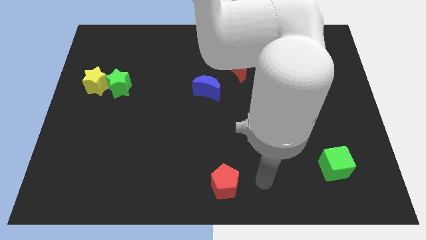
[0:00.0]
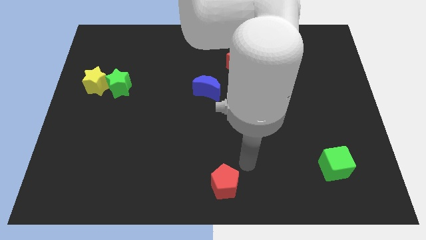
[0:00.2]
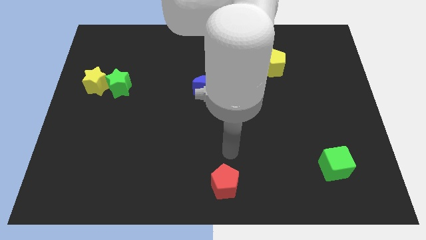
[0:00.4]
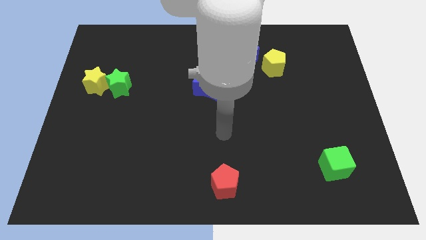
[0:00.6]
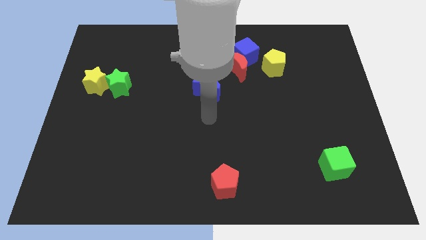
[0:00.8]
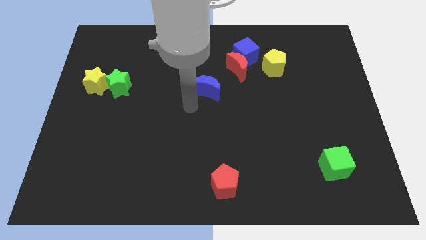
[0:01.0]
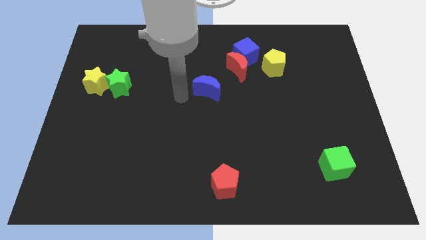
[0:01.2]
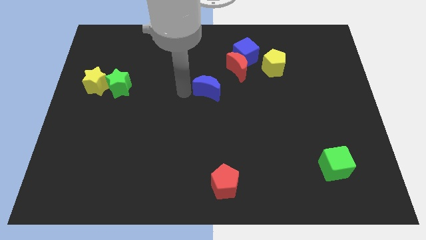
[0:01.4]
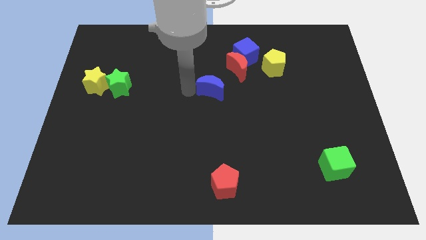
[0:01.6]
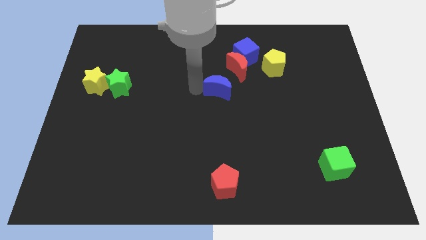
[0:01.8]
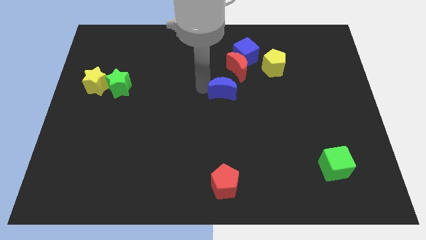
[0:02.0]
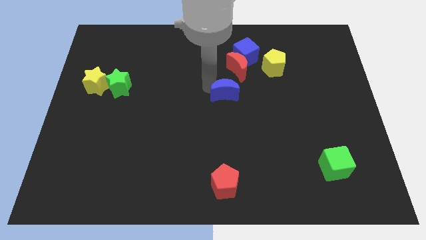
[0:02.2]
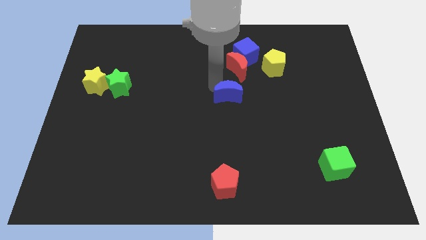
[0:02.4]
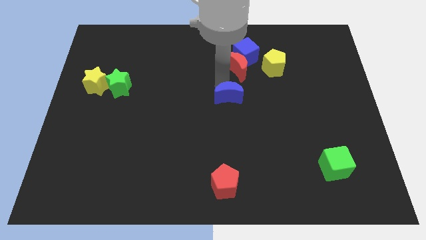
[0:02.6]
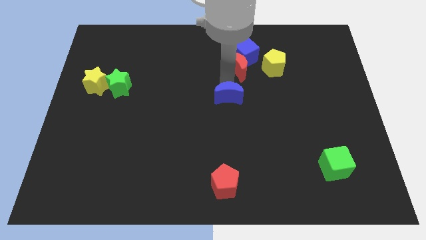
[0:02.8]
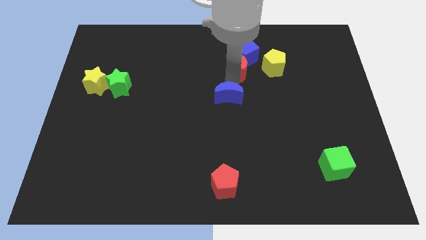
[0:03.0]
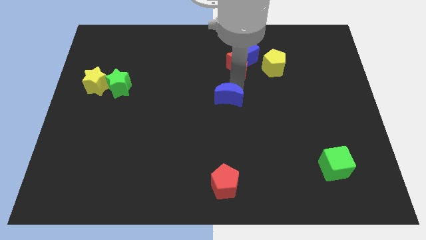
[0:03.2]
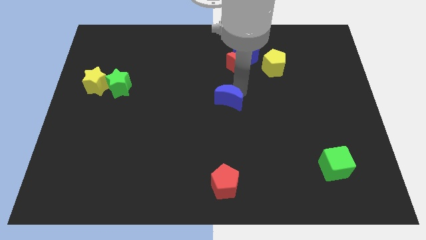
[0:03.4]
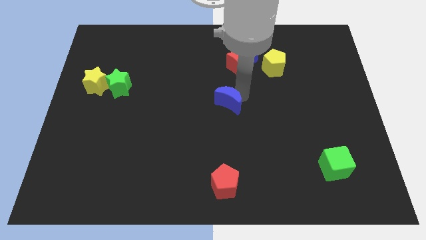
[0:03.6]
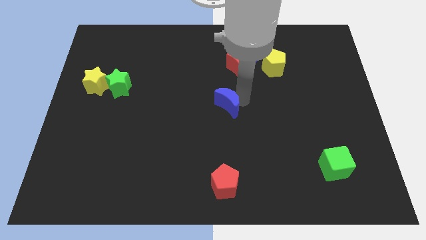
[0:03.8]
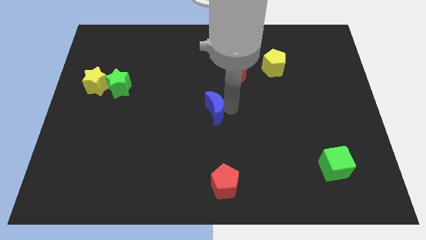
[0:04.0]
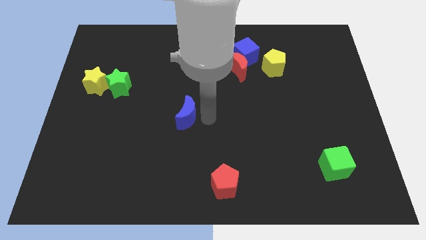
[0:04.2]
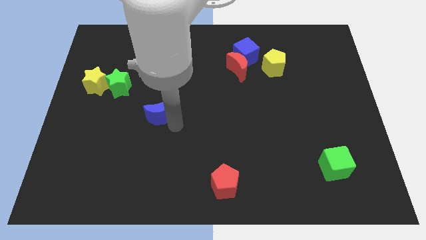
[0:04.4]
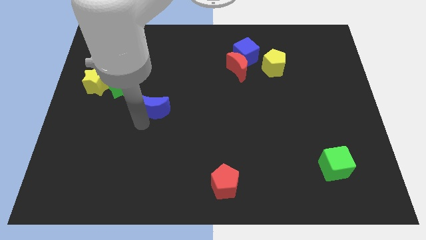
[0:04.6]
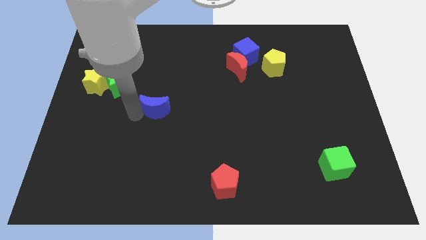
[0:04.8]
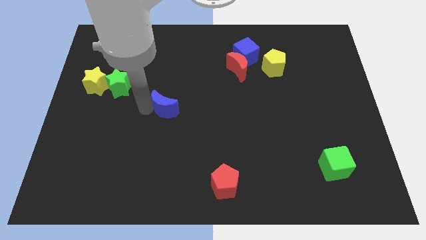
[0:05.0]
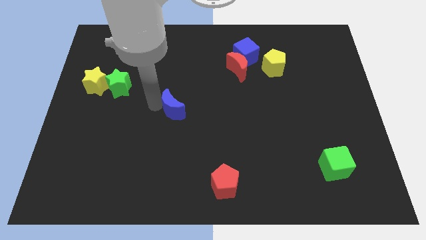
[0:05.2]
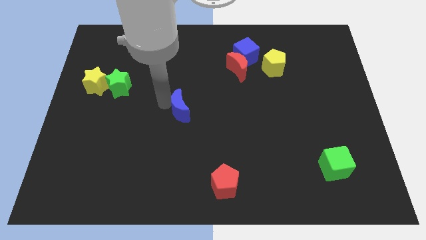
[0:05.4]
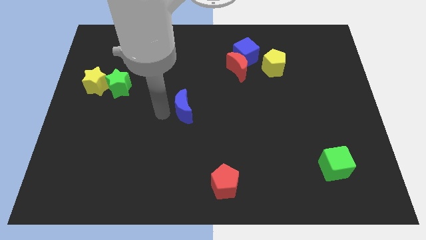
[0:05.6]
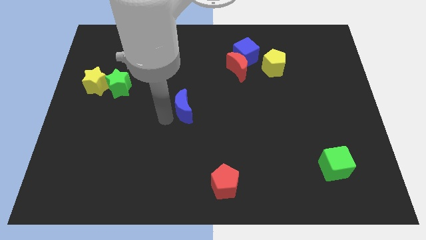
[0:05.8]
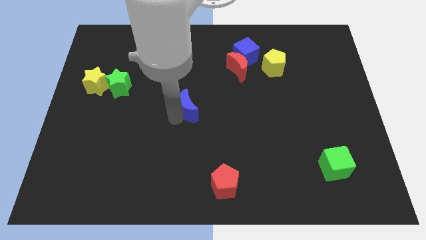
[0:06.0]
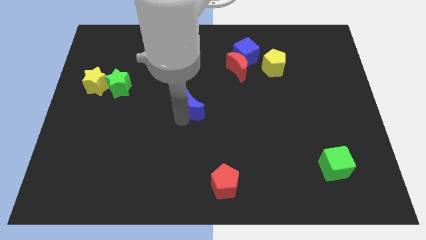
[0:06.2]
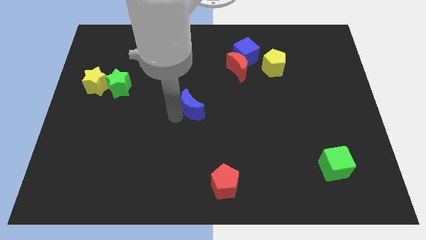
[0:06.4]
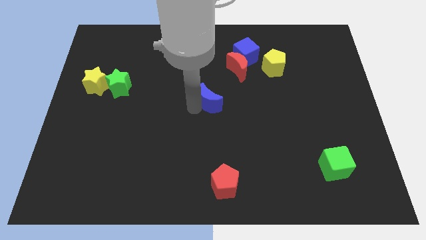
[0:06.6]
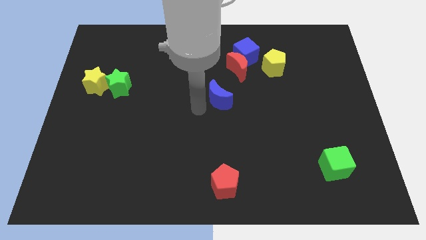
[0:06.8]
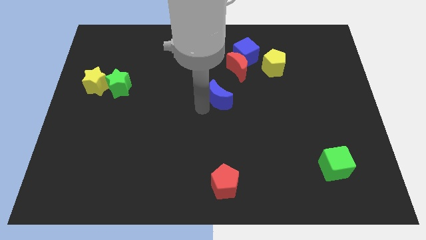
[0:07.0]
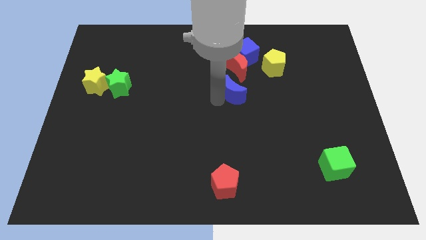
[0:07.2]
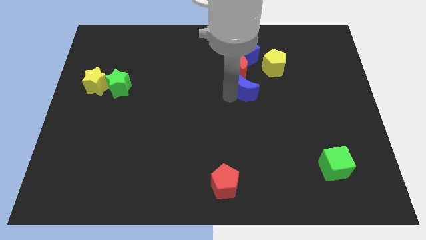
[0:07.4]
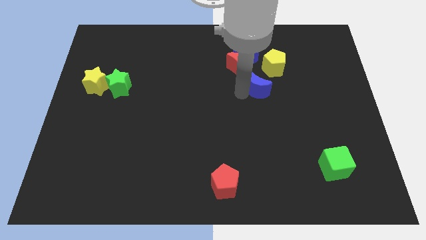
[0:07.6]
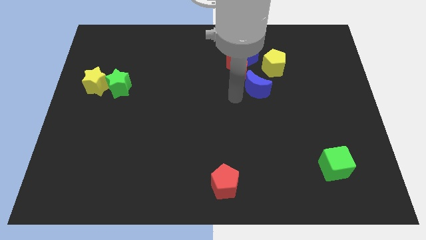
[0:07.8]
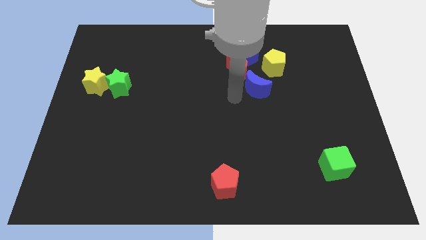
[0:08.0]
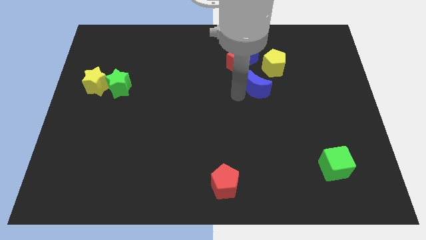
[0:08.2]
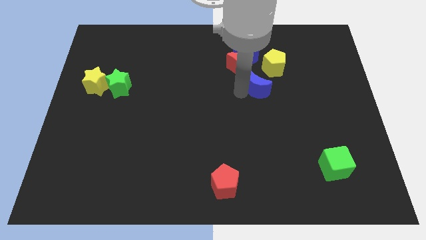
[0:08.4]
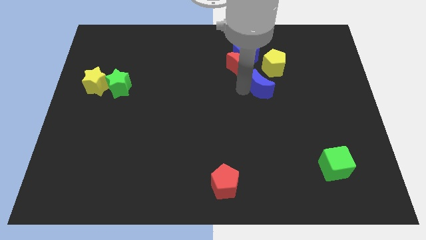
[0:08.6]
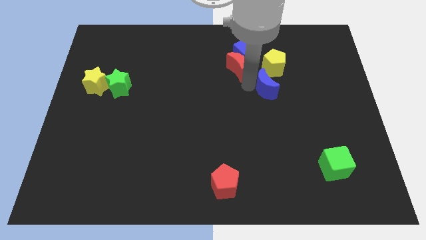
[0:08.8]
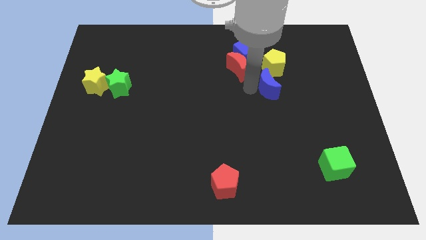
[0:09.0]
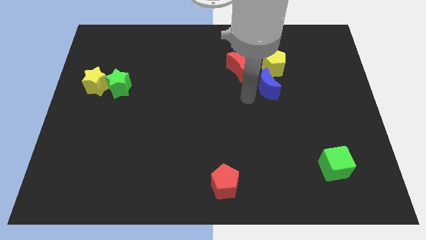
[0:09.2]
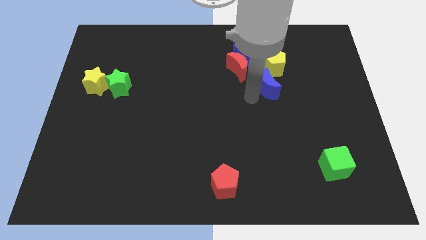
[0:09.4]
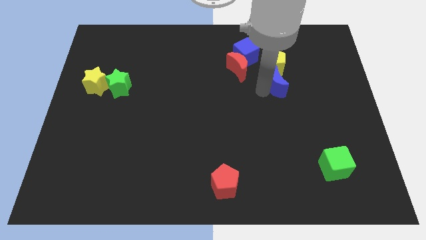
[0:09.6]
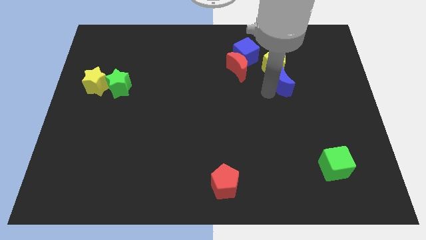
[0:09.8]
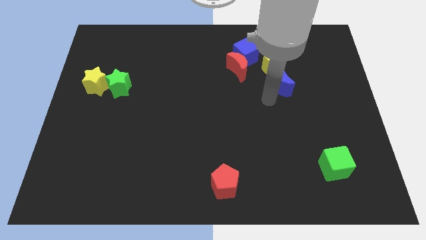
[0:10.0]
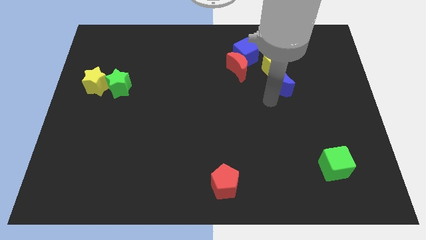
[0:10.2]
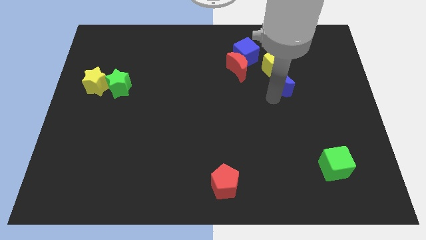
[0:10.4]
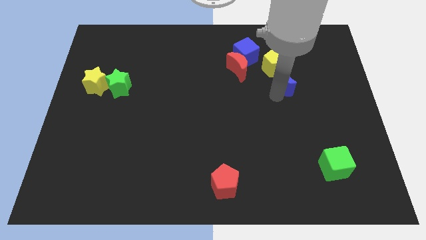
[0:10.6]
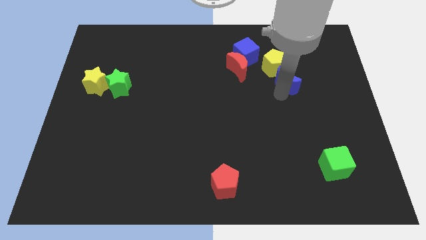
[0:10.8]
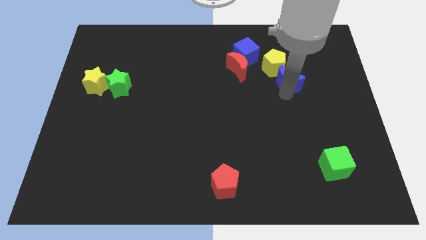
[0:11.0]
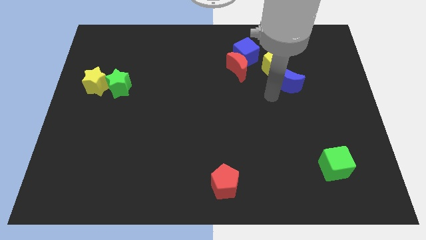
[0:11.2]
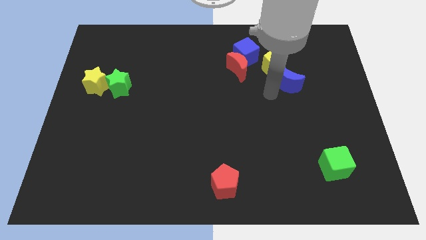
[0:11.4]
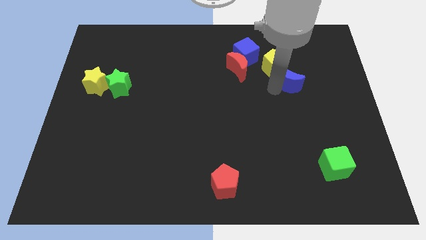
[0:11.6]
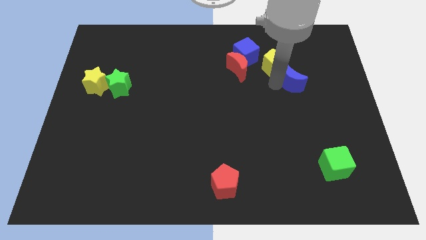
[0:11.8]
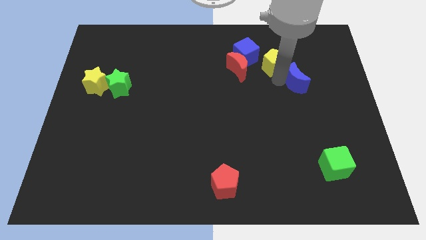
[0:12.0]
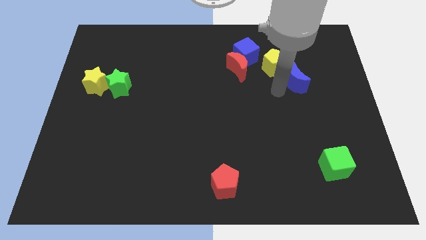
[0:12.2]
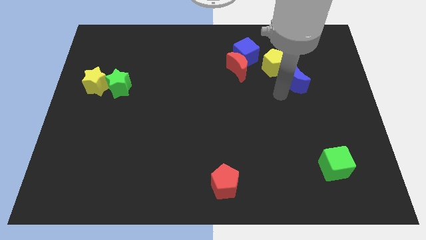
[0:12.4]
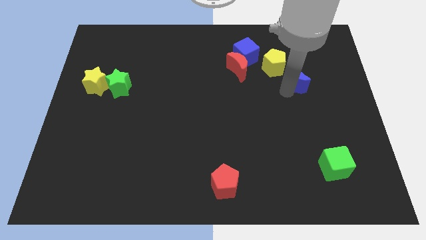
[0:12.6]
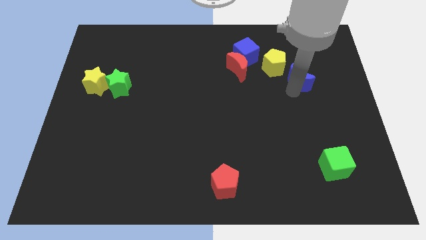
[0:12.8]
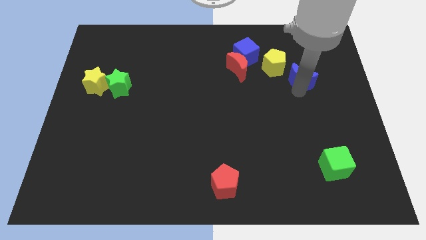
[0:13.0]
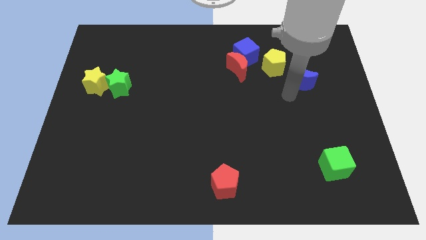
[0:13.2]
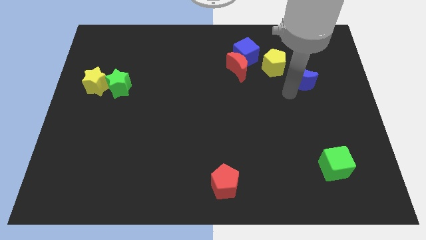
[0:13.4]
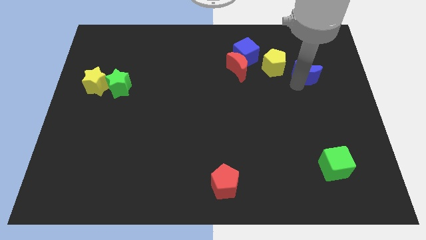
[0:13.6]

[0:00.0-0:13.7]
push the blue moon right of the yellow pentagon
